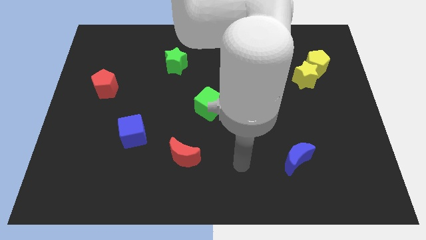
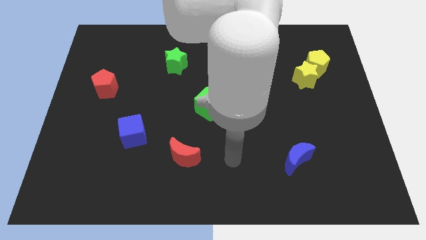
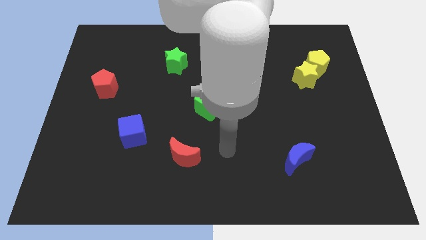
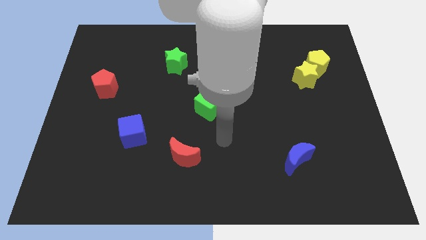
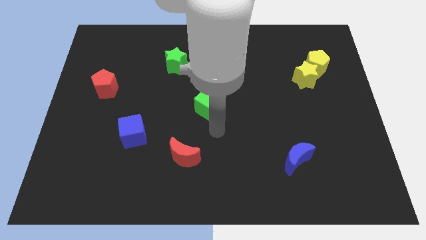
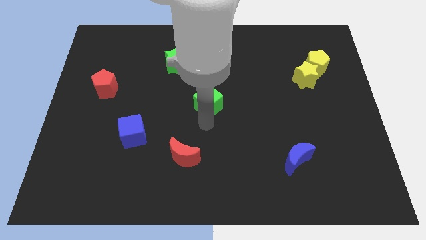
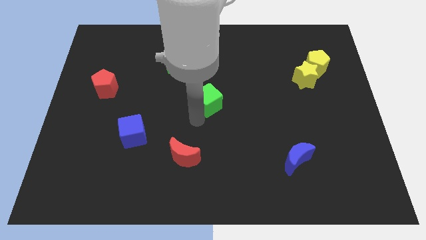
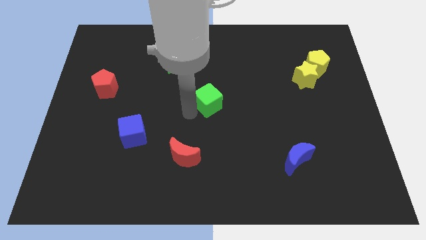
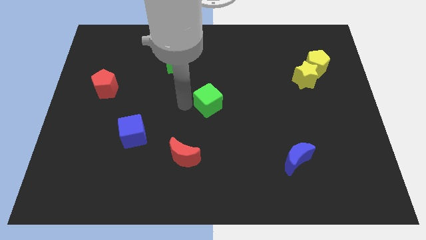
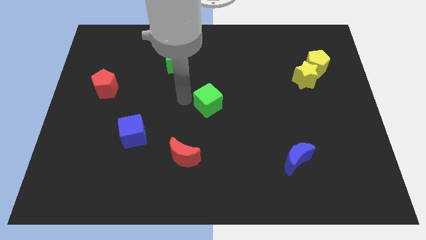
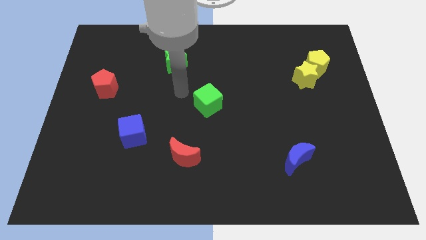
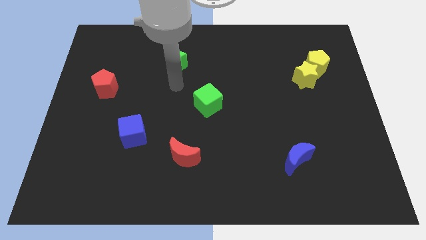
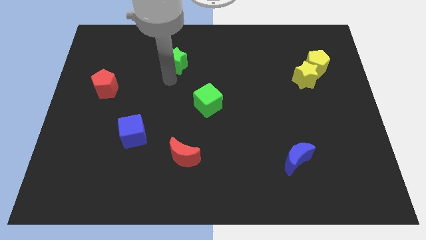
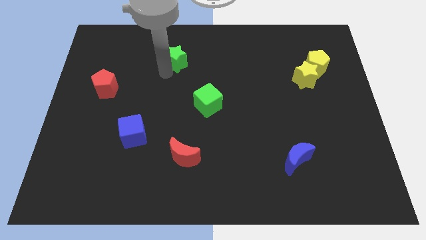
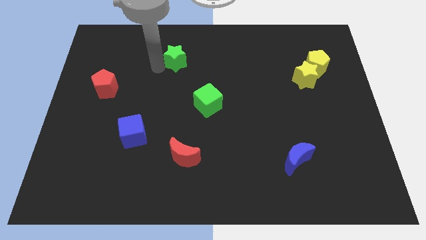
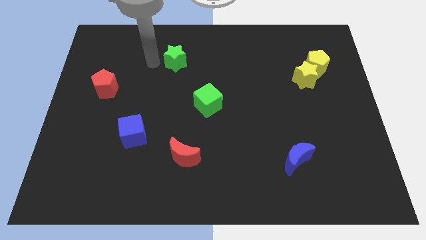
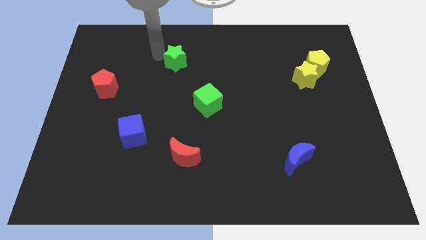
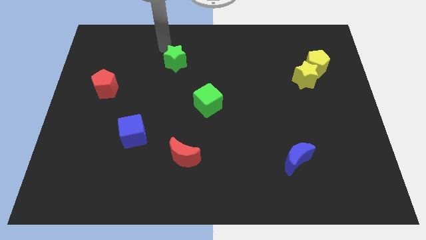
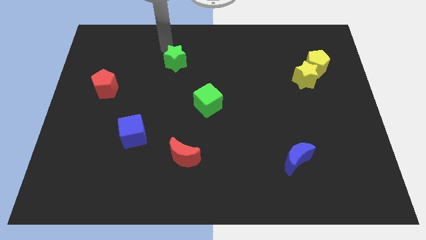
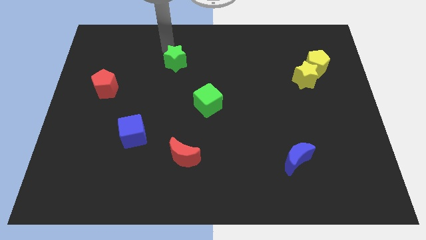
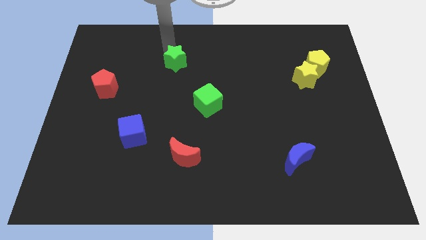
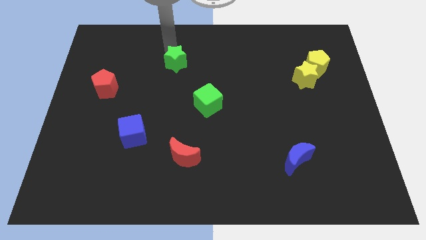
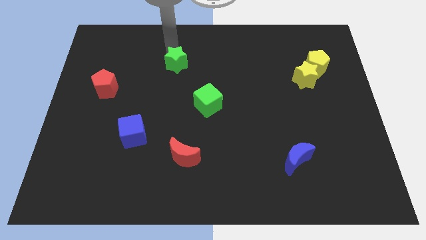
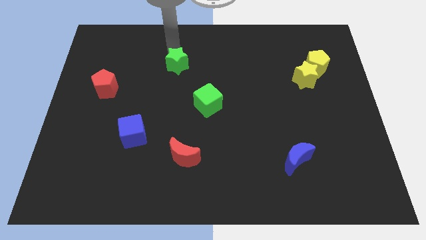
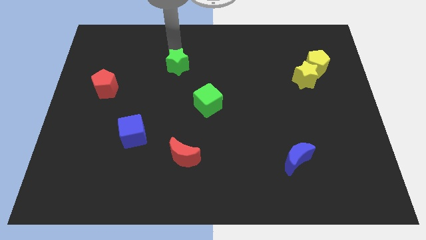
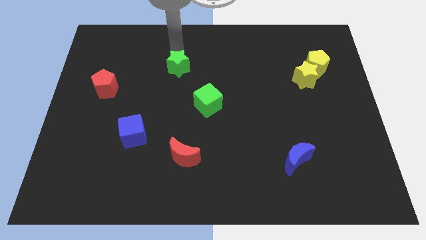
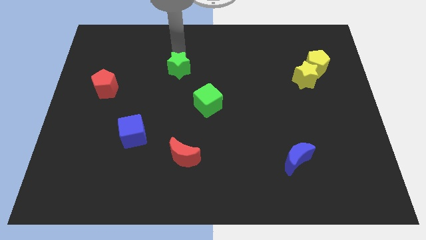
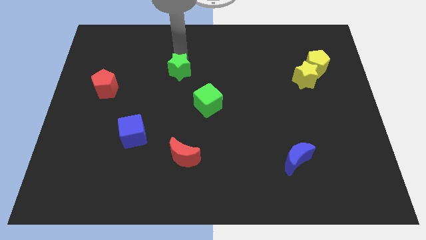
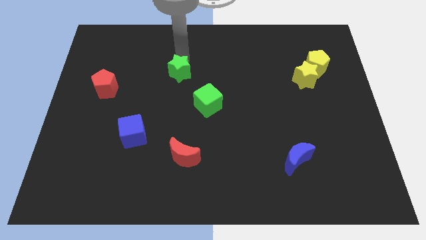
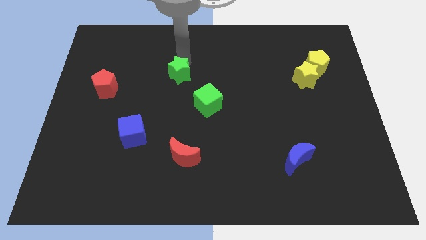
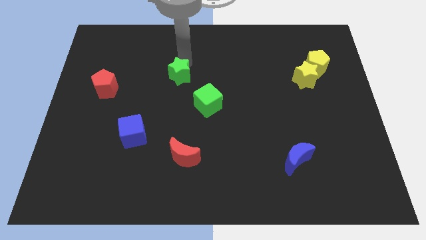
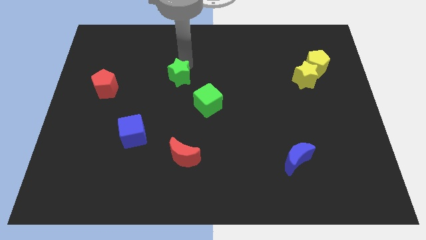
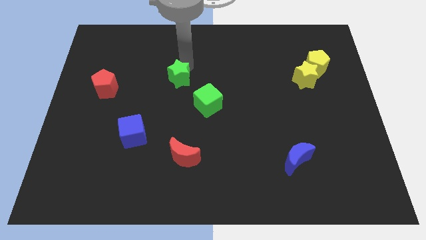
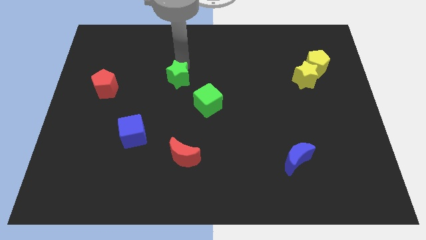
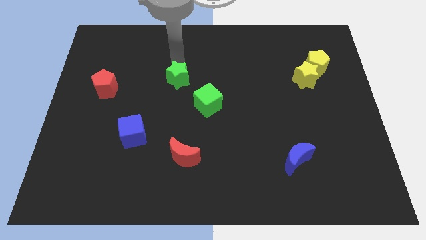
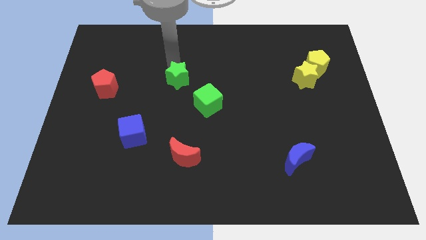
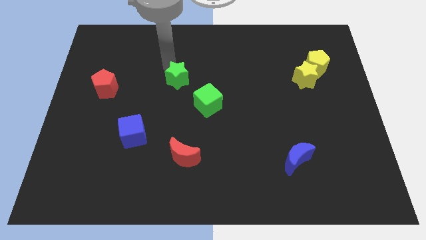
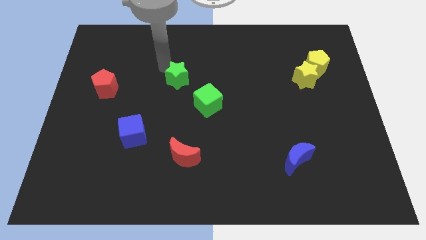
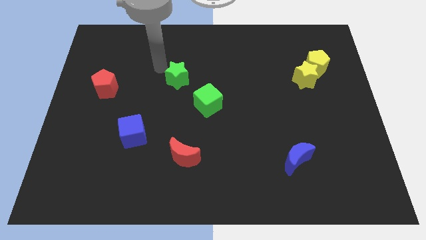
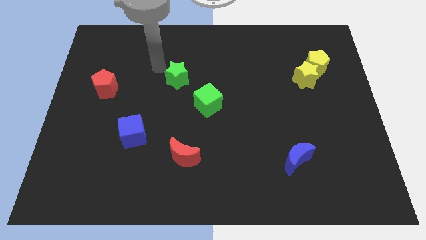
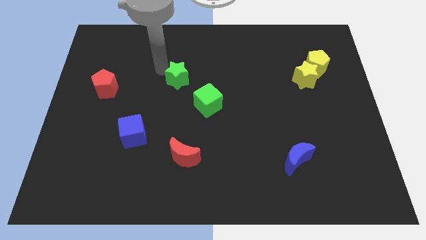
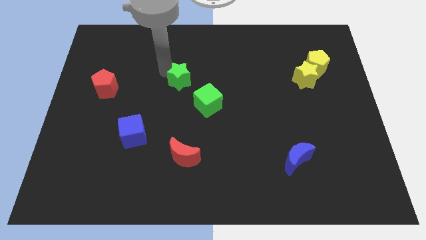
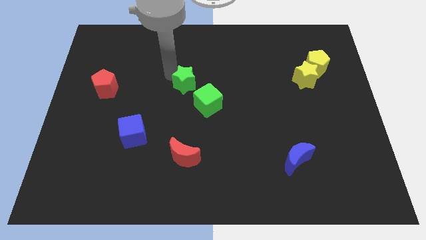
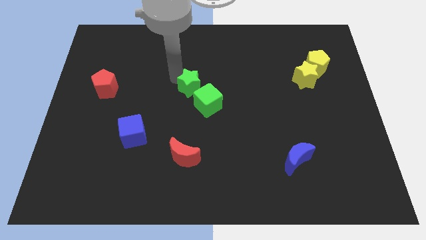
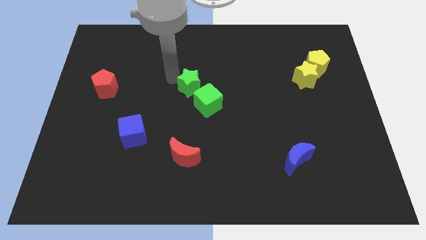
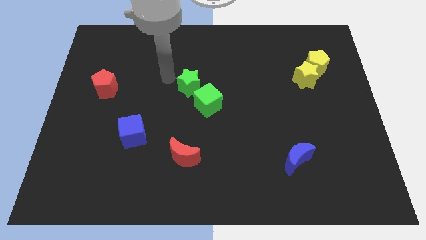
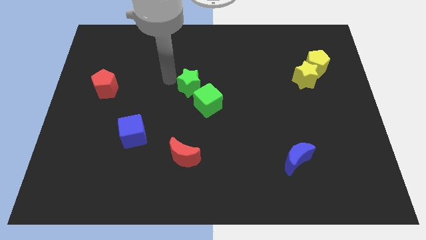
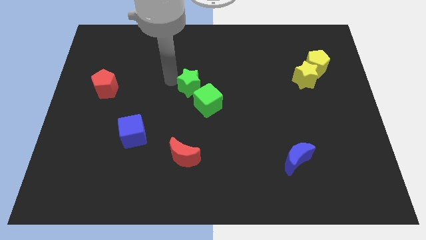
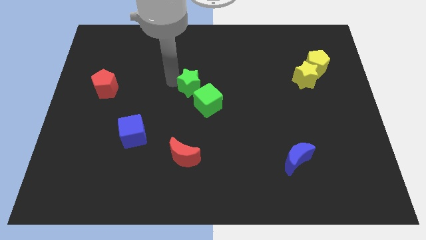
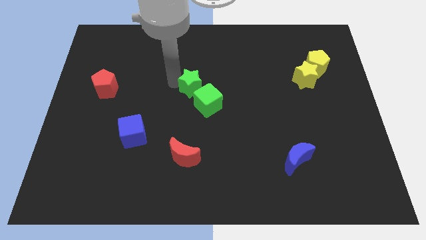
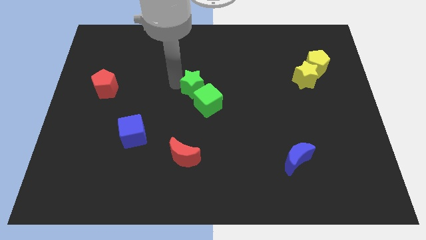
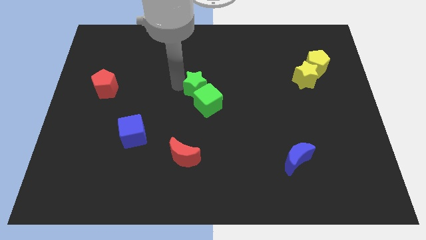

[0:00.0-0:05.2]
put the green star to the green cube

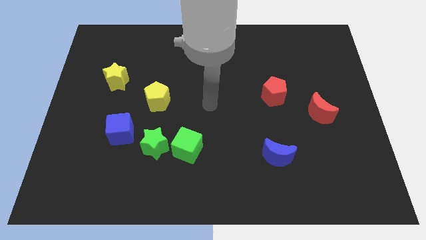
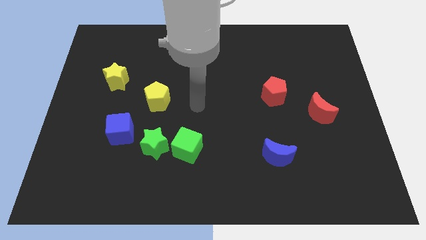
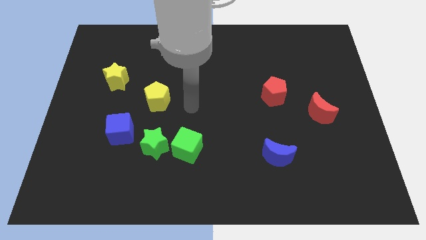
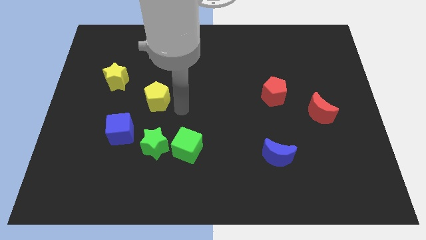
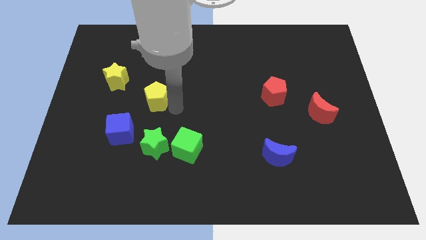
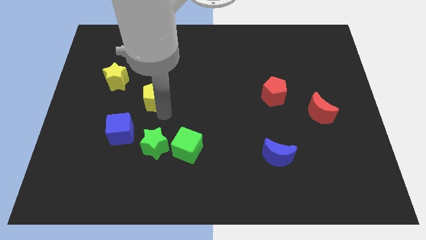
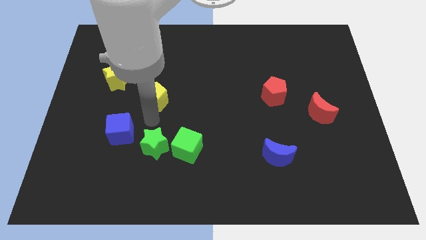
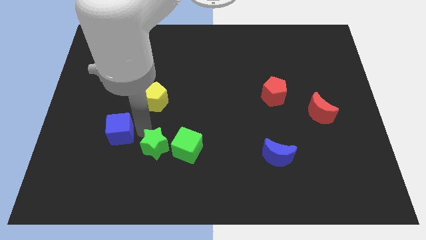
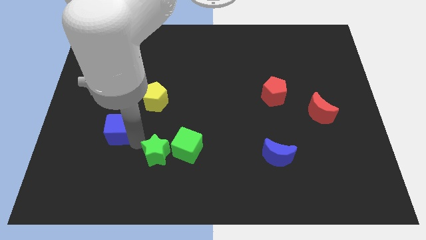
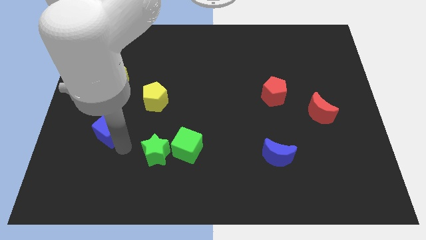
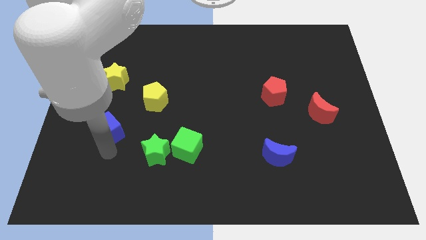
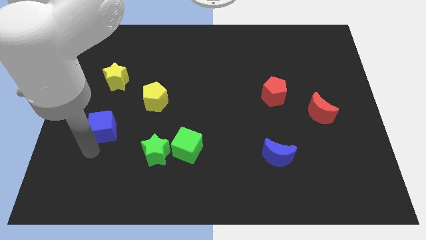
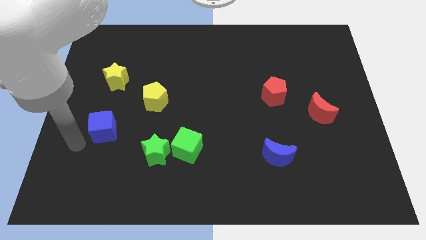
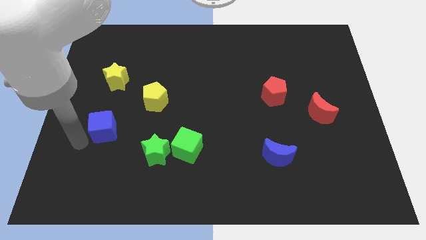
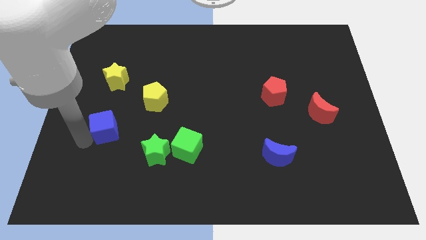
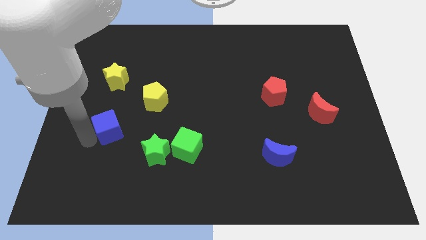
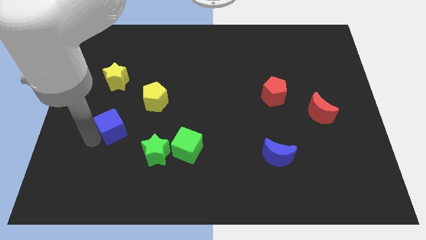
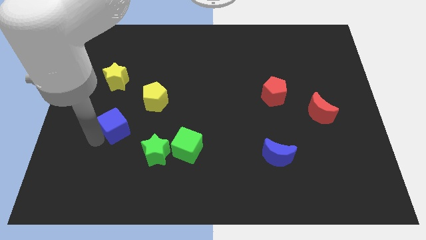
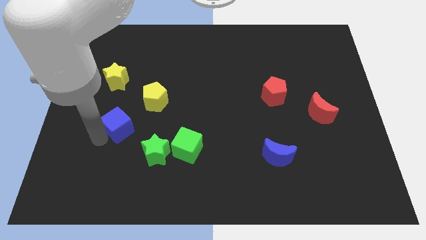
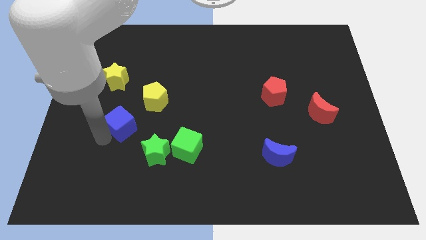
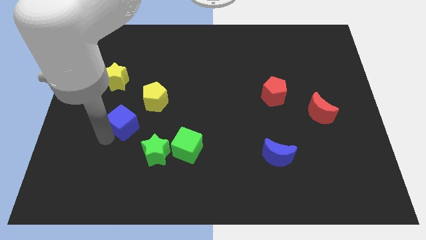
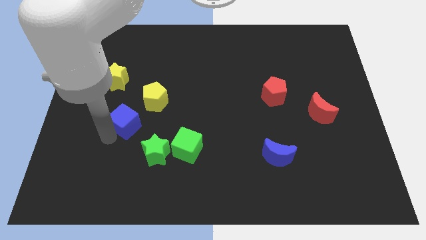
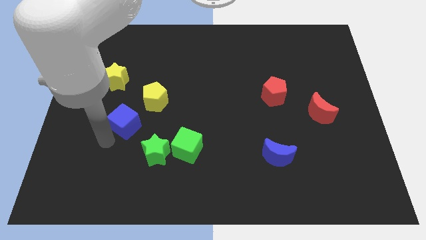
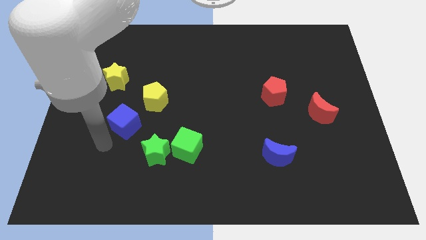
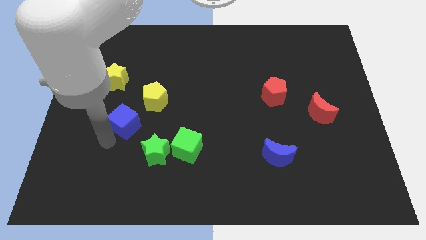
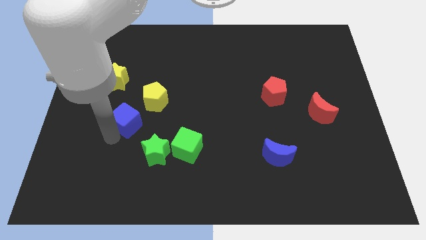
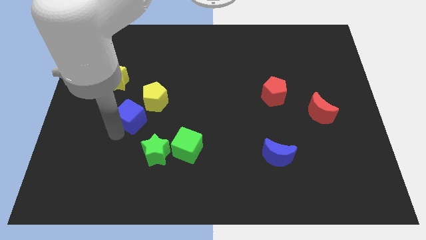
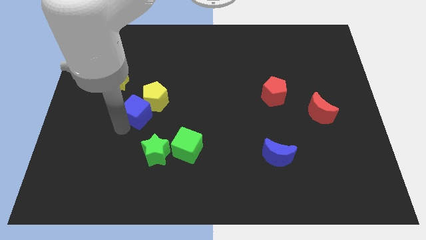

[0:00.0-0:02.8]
slide the blue cube next to the yellow pentagon
